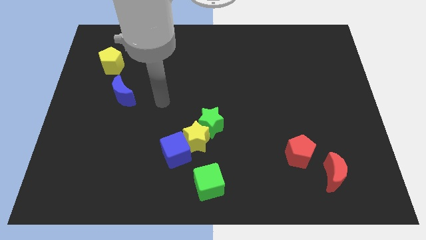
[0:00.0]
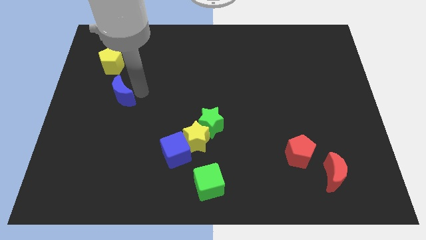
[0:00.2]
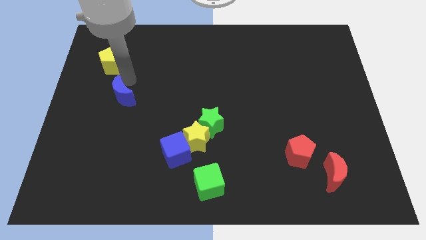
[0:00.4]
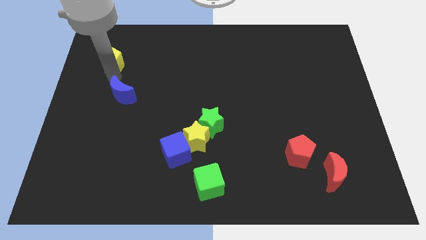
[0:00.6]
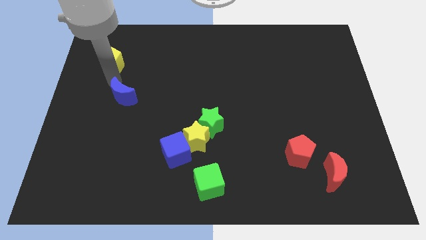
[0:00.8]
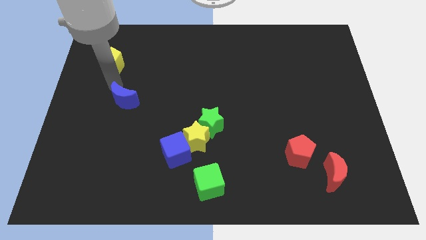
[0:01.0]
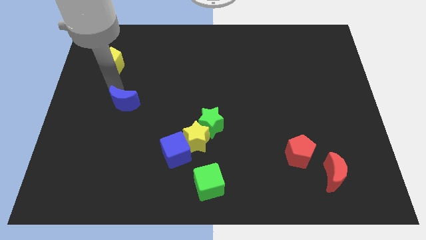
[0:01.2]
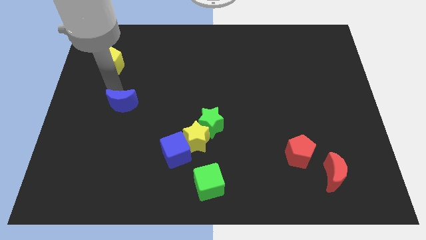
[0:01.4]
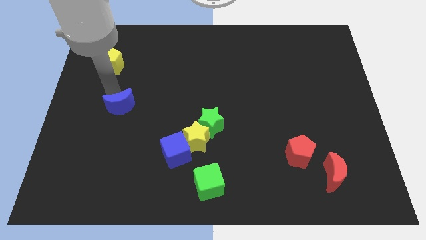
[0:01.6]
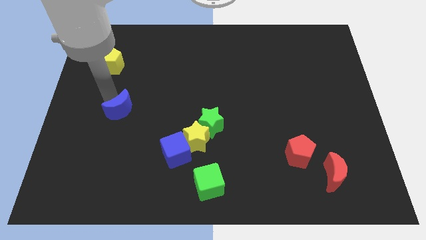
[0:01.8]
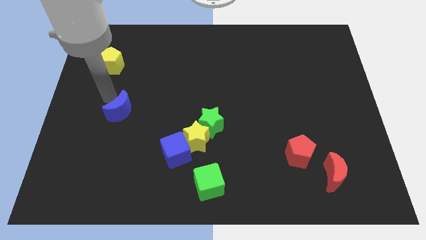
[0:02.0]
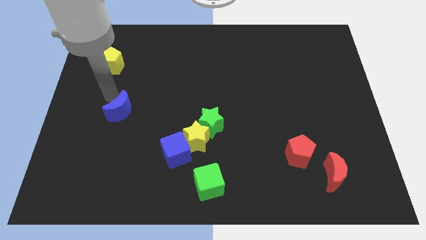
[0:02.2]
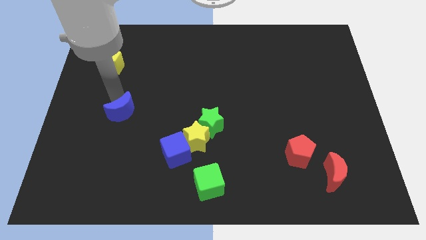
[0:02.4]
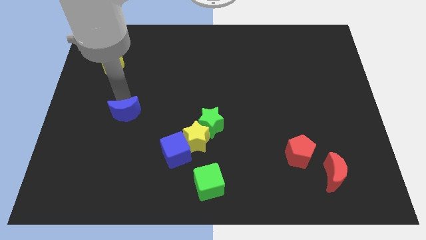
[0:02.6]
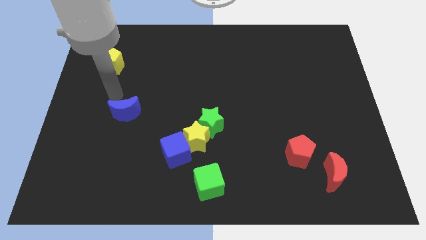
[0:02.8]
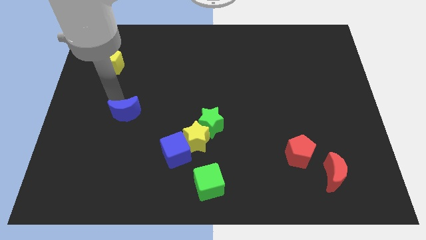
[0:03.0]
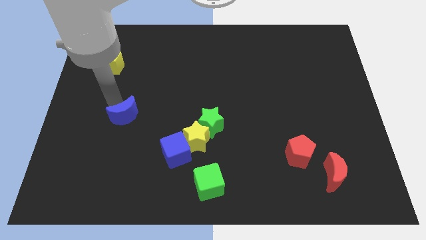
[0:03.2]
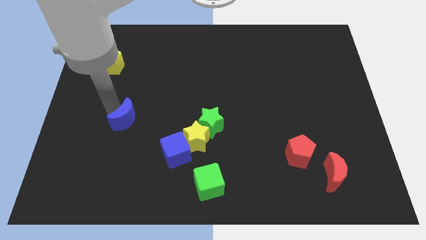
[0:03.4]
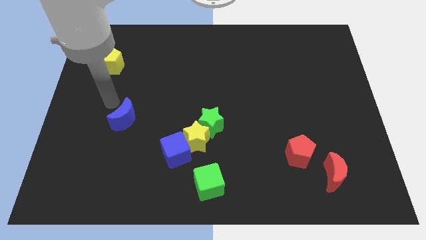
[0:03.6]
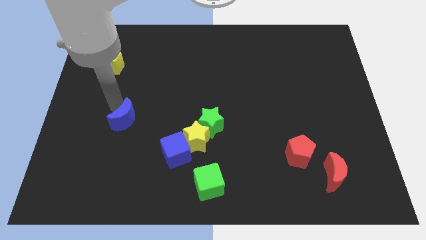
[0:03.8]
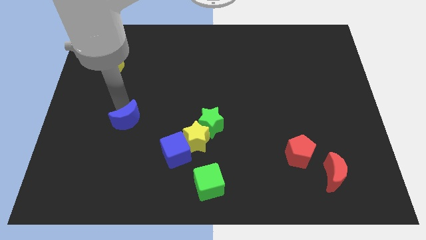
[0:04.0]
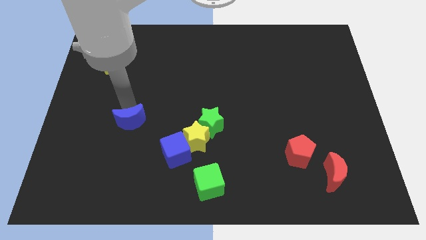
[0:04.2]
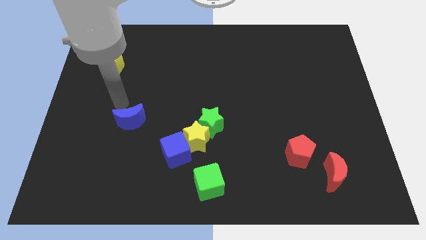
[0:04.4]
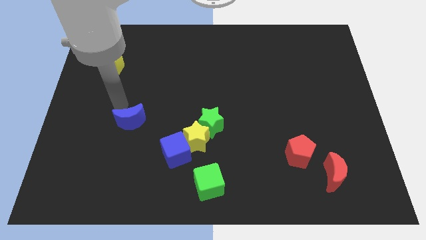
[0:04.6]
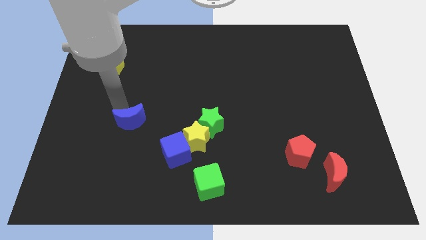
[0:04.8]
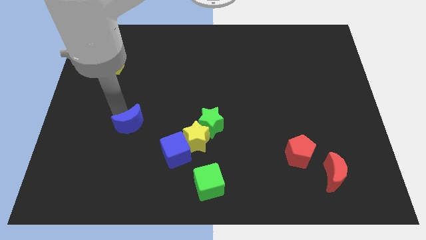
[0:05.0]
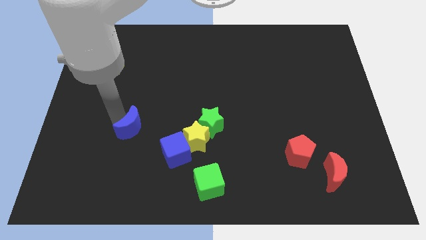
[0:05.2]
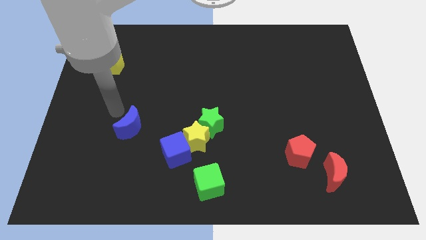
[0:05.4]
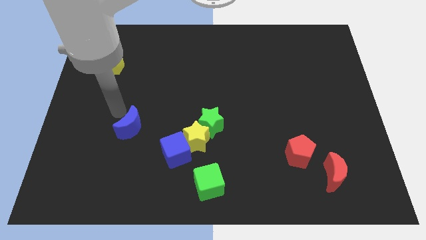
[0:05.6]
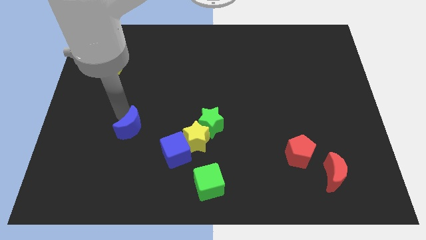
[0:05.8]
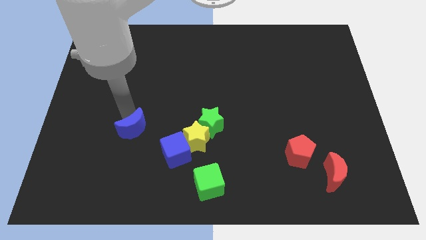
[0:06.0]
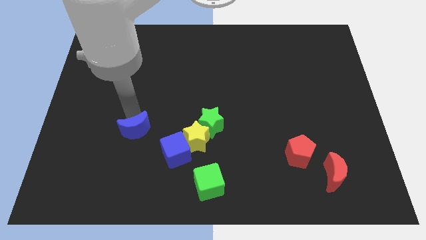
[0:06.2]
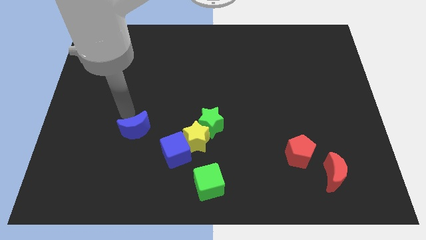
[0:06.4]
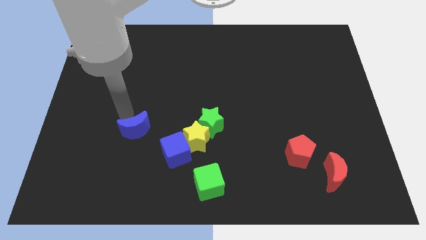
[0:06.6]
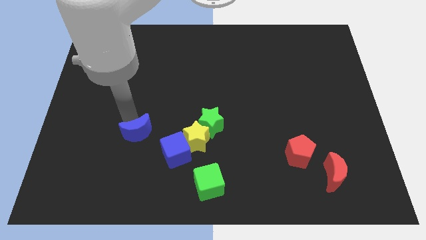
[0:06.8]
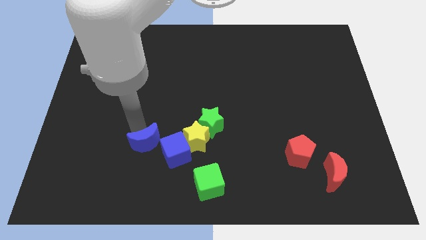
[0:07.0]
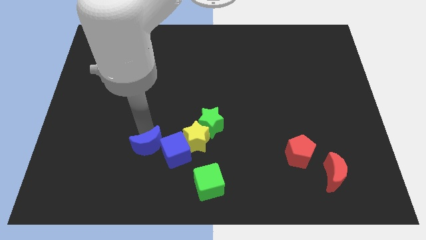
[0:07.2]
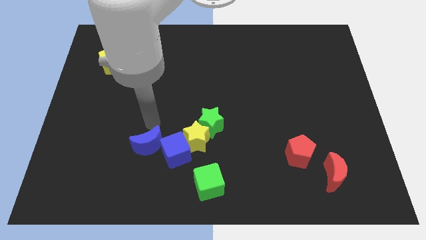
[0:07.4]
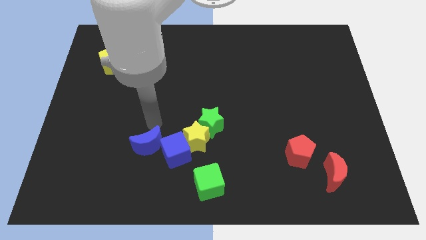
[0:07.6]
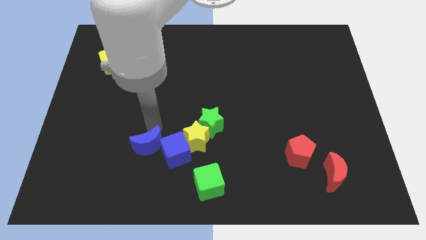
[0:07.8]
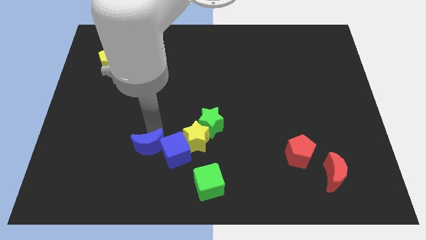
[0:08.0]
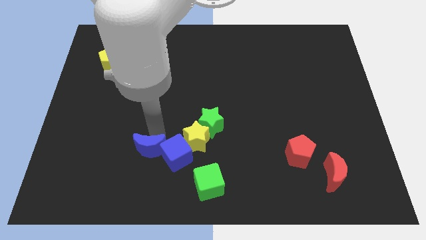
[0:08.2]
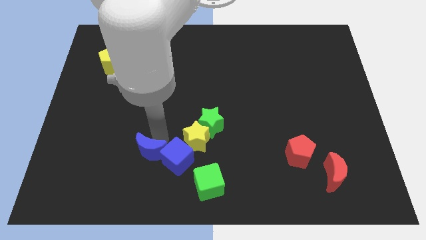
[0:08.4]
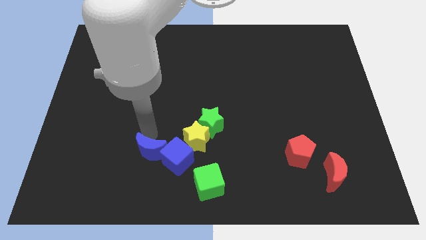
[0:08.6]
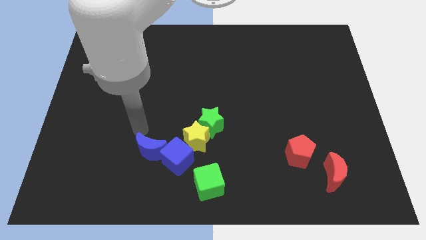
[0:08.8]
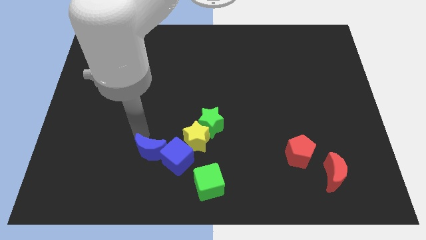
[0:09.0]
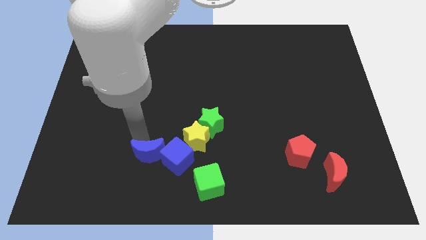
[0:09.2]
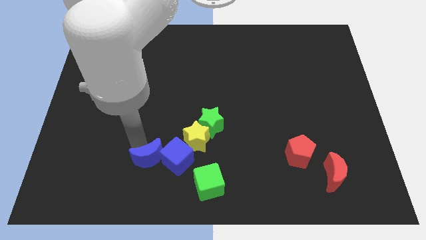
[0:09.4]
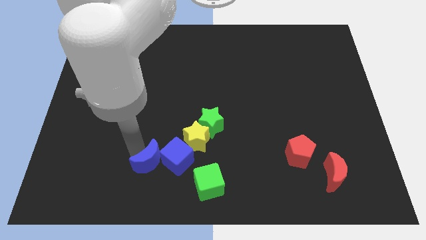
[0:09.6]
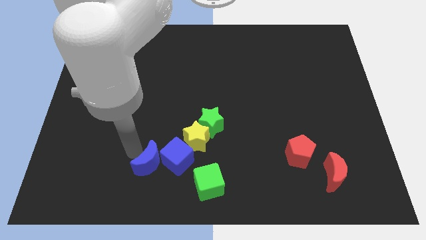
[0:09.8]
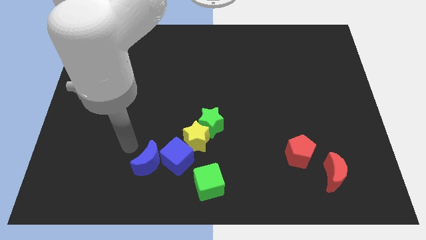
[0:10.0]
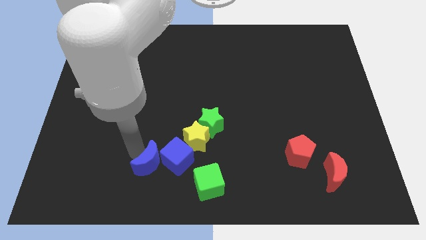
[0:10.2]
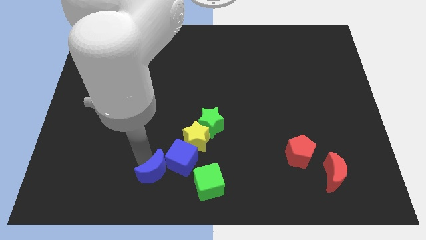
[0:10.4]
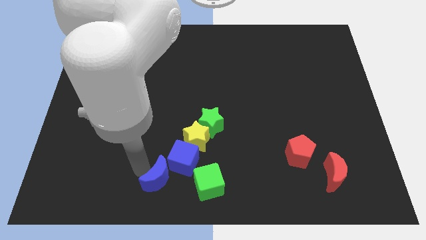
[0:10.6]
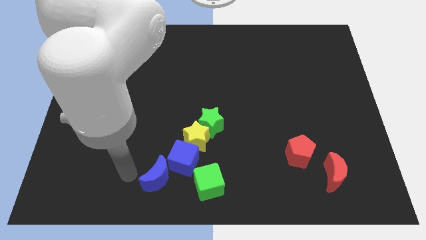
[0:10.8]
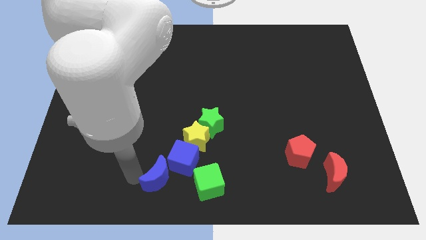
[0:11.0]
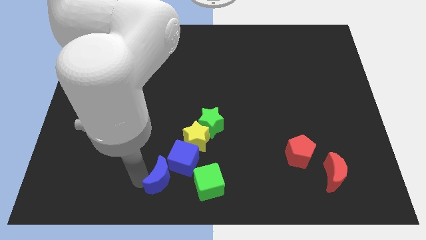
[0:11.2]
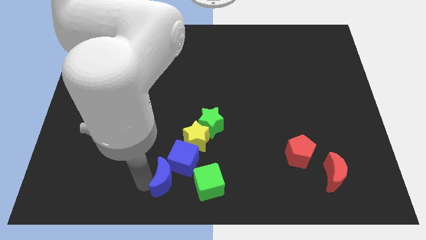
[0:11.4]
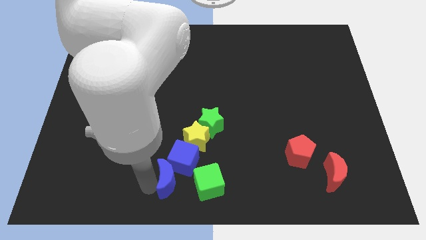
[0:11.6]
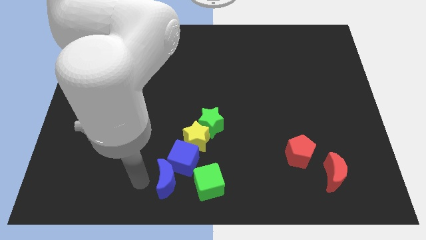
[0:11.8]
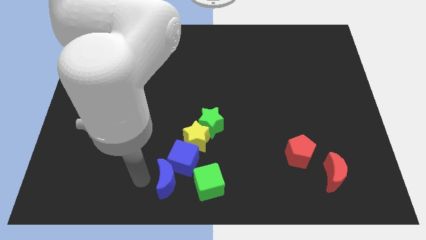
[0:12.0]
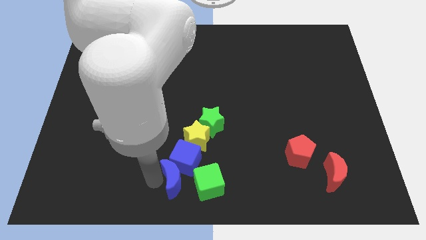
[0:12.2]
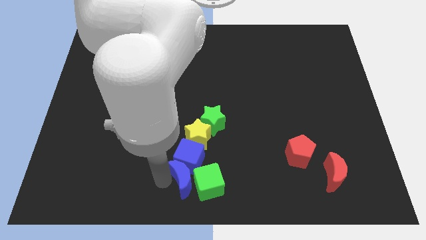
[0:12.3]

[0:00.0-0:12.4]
push the blue moon next to the green cube
